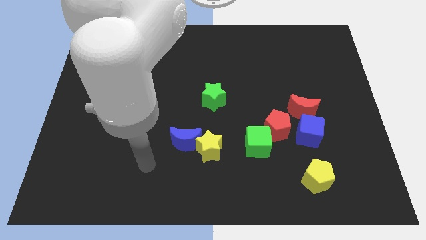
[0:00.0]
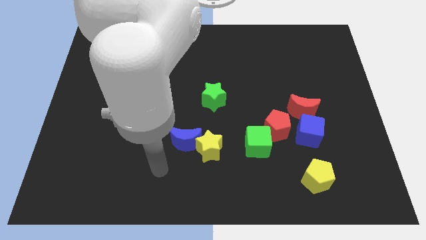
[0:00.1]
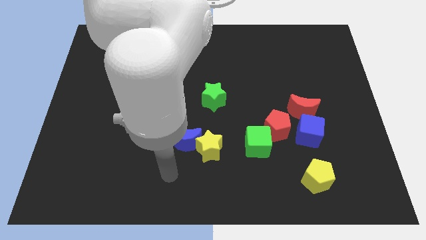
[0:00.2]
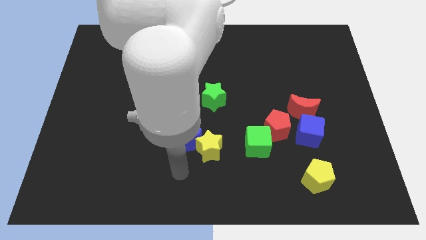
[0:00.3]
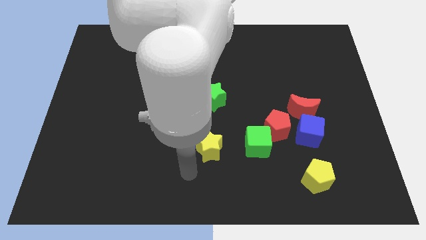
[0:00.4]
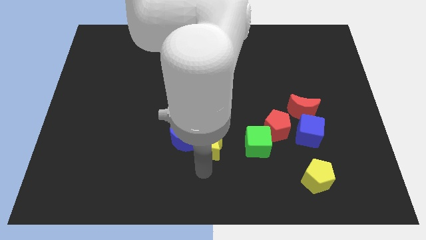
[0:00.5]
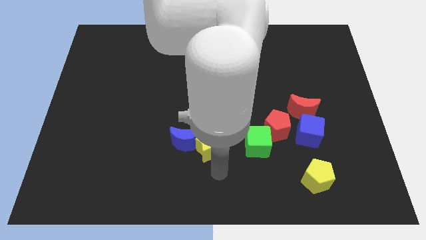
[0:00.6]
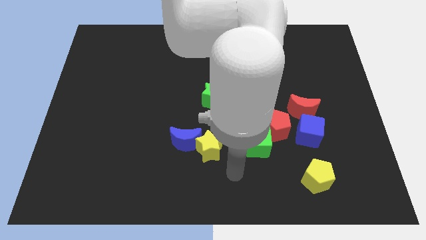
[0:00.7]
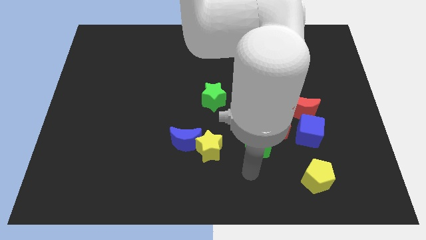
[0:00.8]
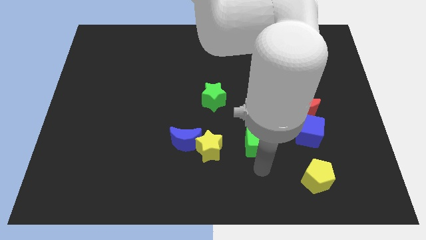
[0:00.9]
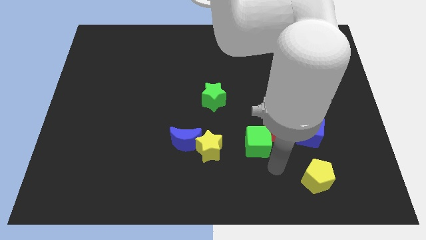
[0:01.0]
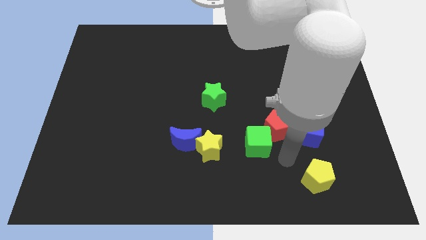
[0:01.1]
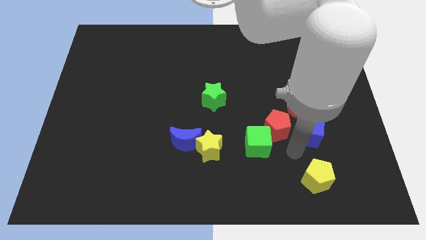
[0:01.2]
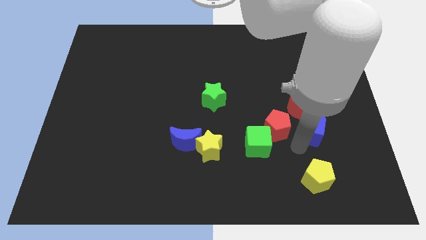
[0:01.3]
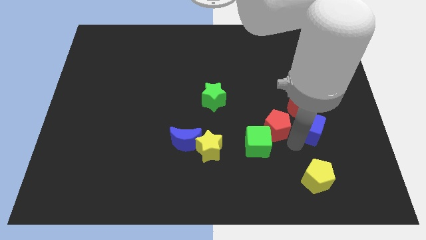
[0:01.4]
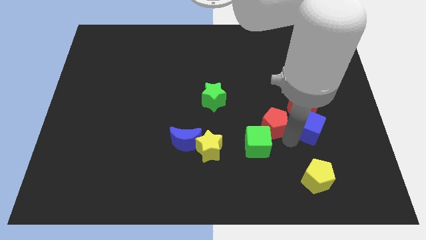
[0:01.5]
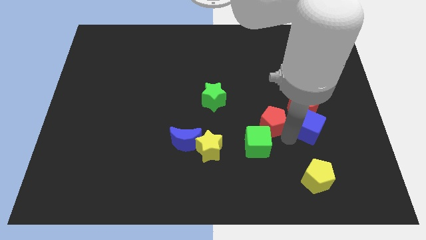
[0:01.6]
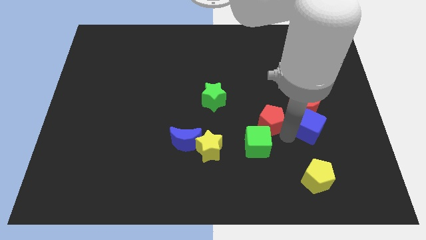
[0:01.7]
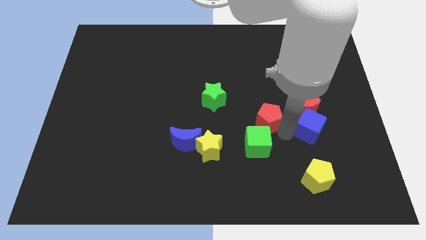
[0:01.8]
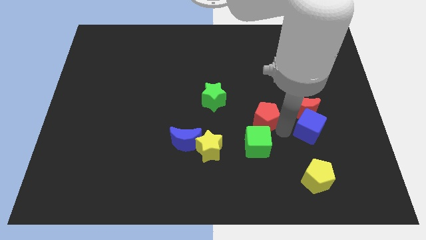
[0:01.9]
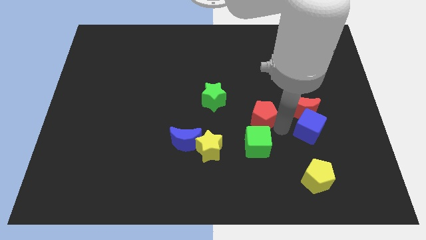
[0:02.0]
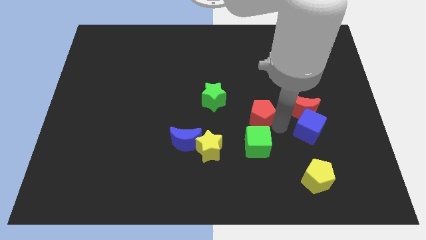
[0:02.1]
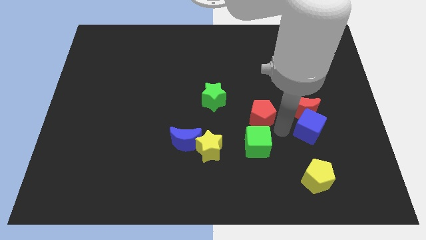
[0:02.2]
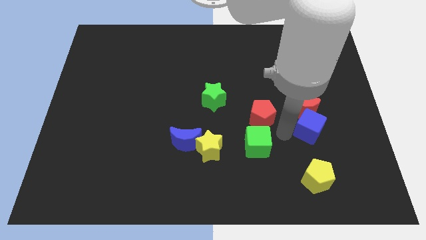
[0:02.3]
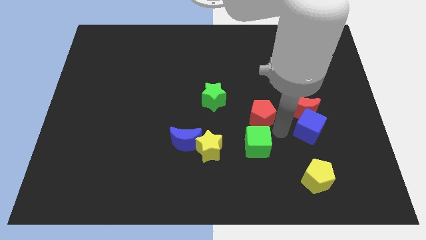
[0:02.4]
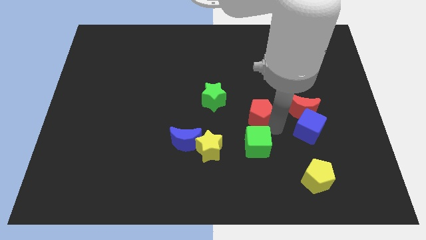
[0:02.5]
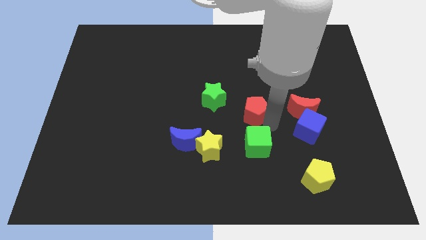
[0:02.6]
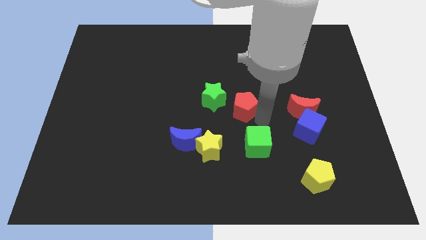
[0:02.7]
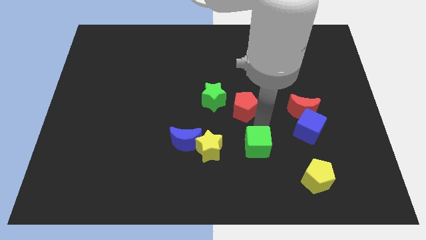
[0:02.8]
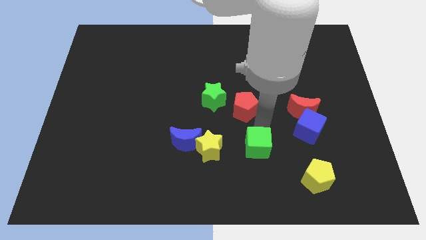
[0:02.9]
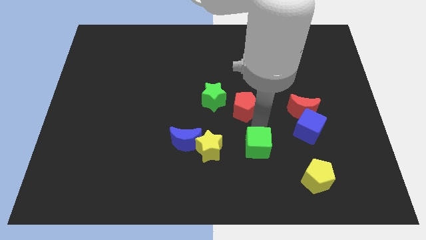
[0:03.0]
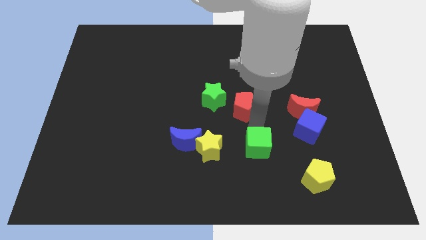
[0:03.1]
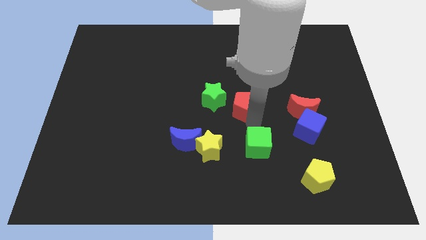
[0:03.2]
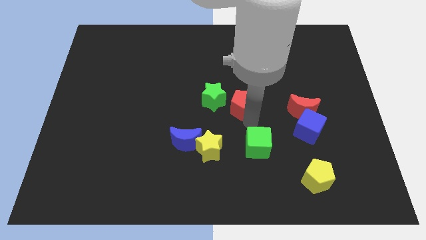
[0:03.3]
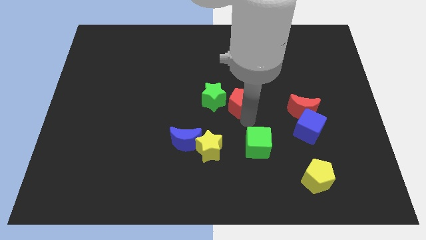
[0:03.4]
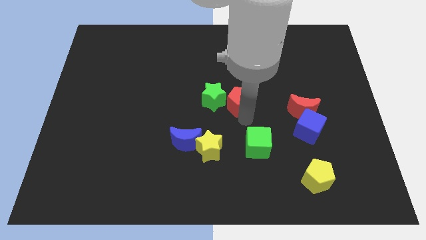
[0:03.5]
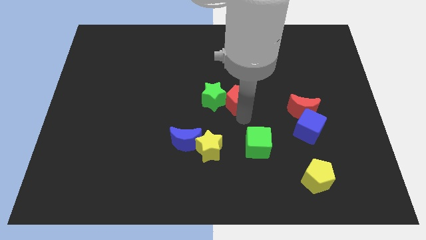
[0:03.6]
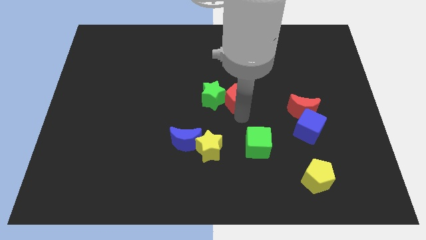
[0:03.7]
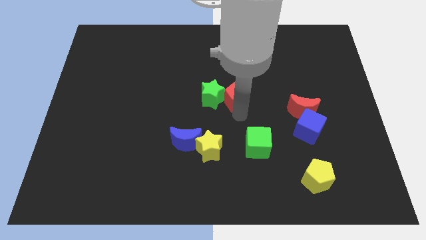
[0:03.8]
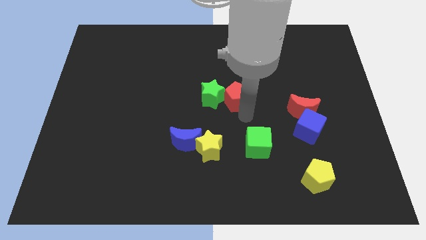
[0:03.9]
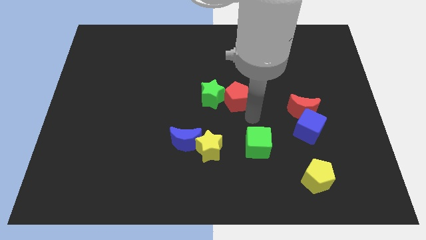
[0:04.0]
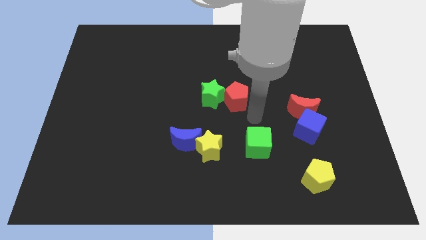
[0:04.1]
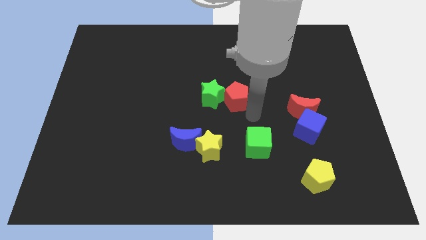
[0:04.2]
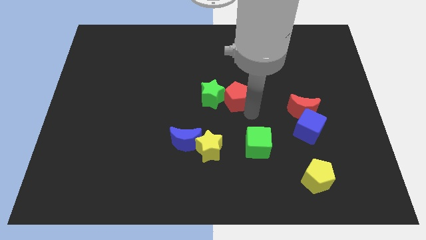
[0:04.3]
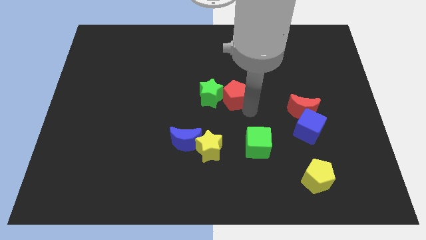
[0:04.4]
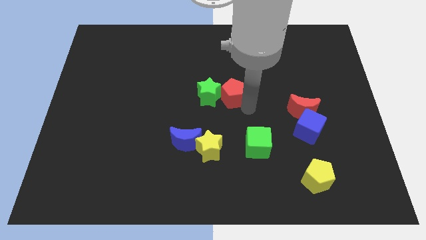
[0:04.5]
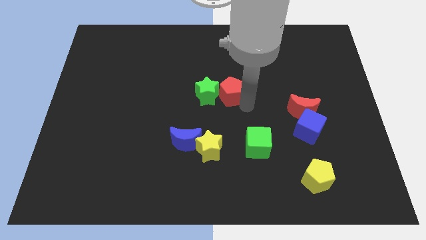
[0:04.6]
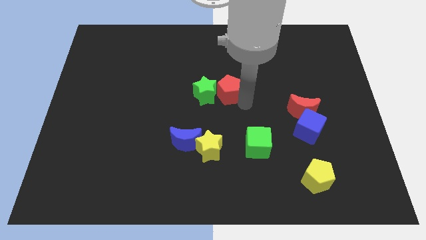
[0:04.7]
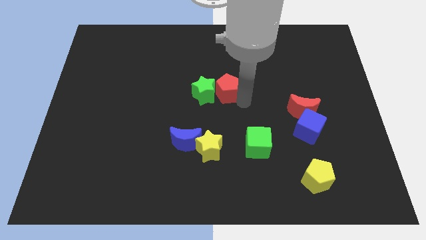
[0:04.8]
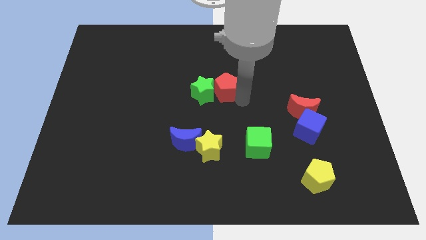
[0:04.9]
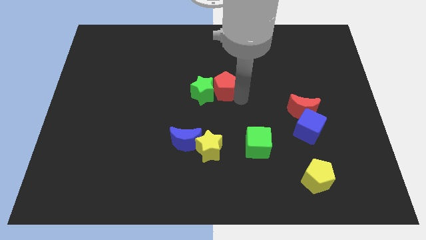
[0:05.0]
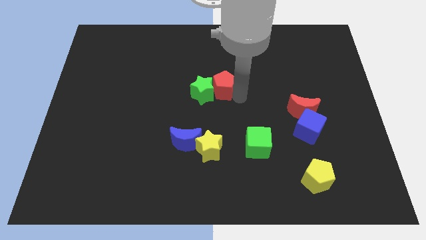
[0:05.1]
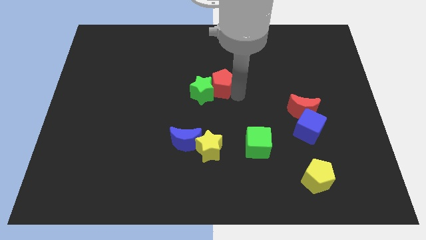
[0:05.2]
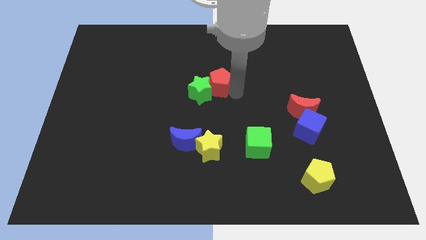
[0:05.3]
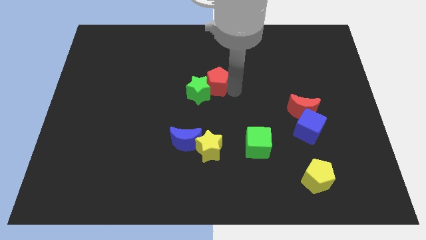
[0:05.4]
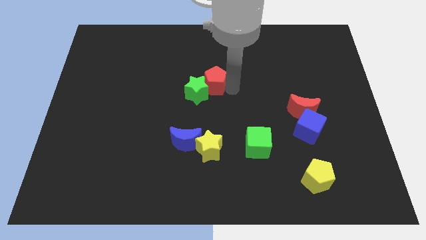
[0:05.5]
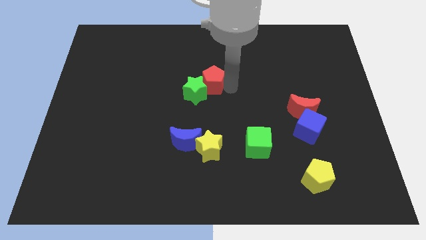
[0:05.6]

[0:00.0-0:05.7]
slide the red pentagon up and left

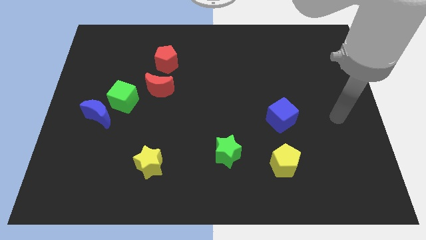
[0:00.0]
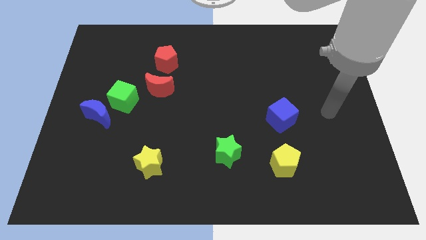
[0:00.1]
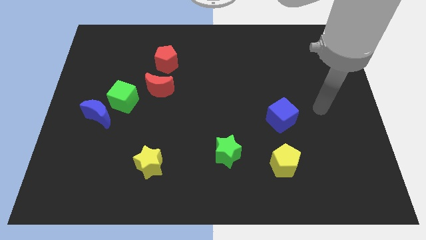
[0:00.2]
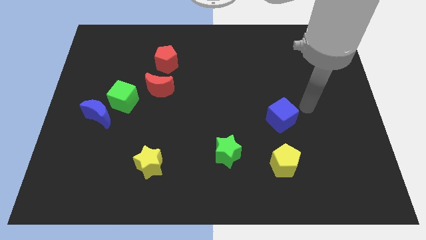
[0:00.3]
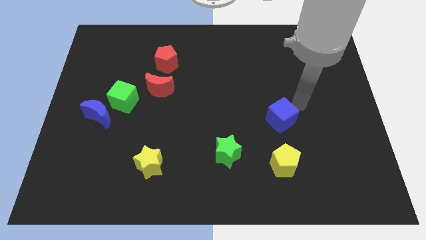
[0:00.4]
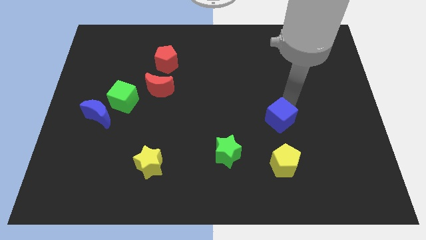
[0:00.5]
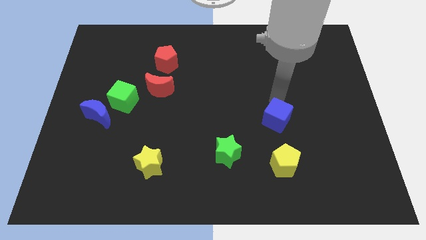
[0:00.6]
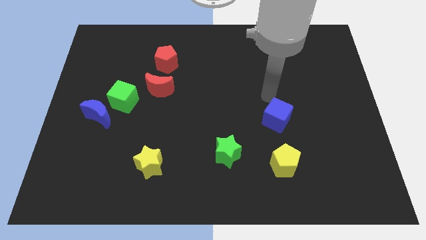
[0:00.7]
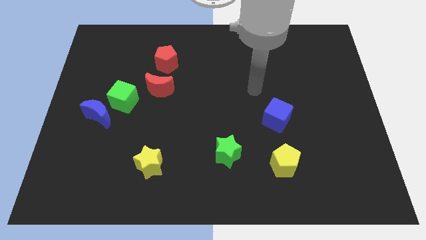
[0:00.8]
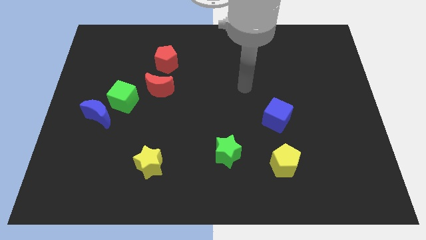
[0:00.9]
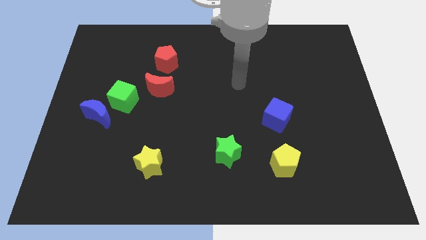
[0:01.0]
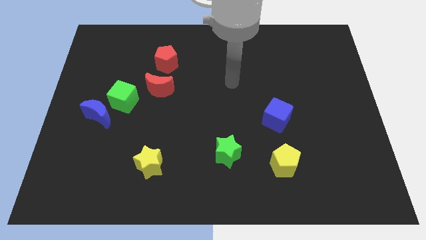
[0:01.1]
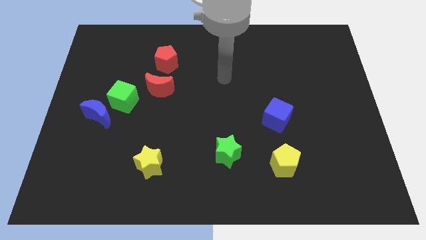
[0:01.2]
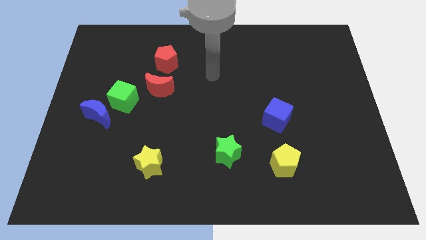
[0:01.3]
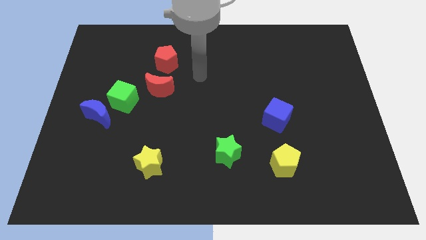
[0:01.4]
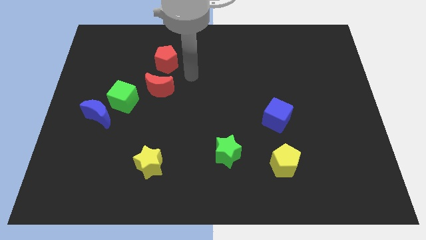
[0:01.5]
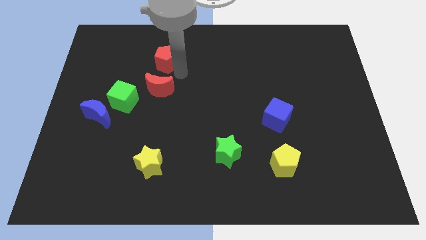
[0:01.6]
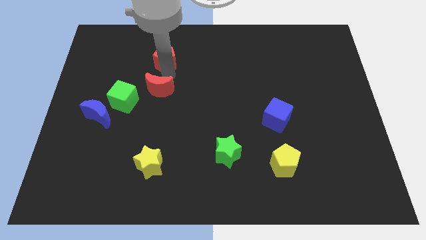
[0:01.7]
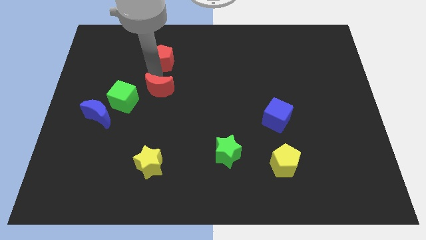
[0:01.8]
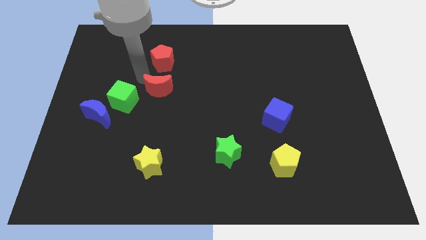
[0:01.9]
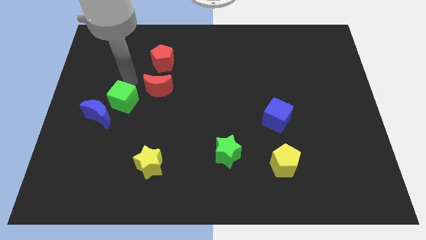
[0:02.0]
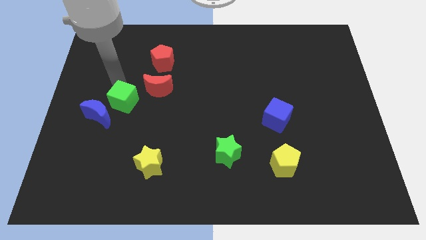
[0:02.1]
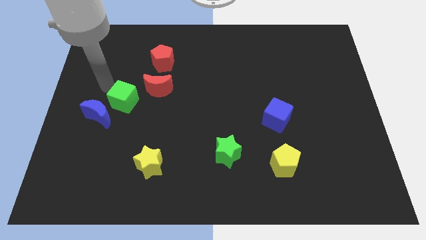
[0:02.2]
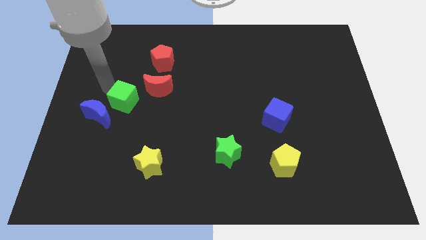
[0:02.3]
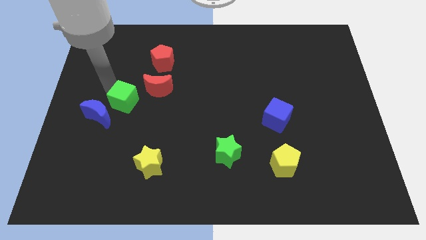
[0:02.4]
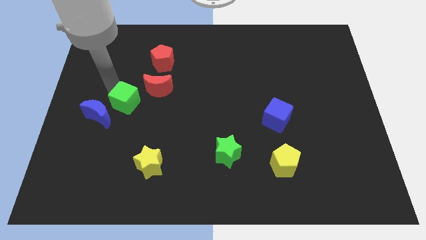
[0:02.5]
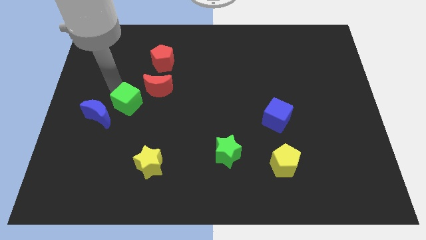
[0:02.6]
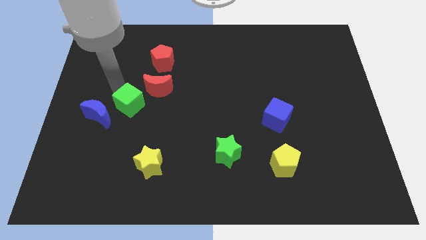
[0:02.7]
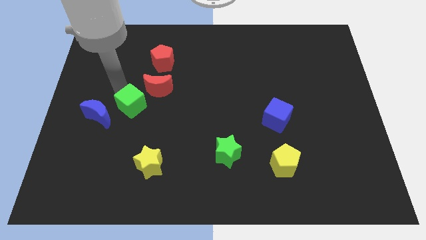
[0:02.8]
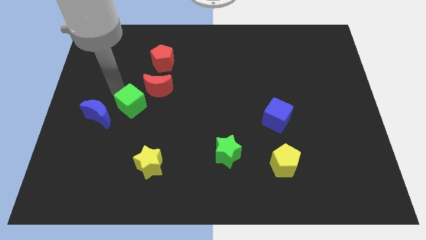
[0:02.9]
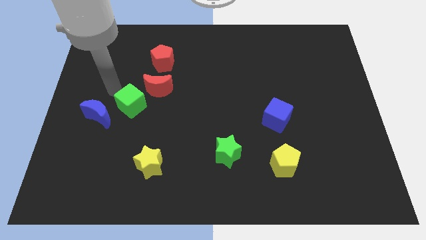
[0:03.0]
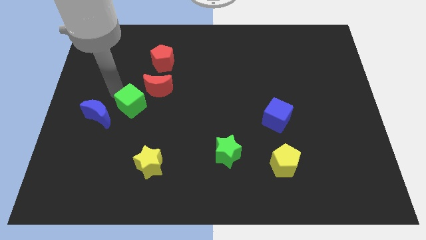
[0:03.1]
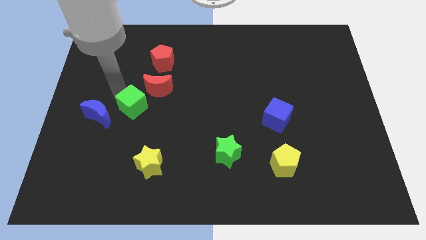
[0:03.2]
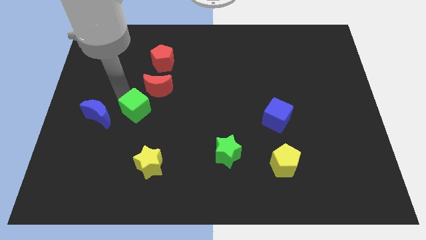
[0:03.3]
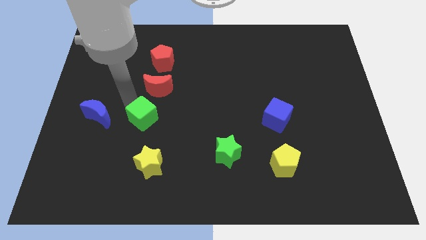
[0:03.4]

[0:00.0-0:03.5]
move the green cube diagonally downwards and right somewhat
